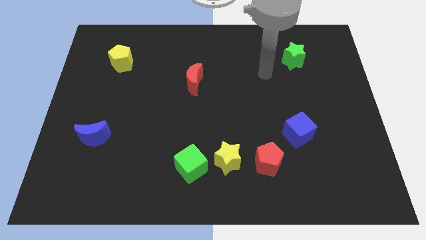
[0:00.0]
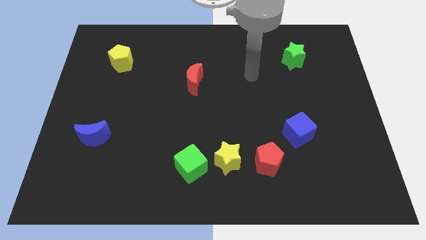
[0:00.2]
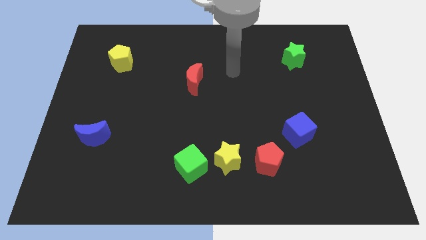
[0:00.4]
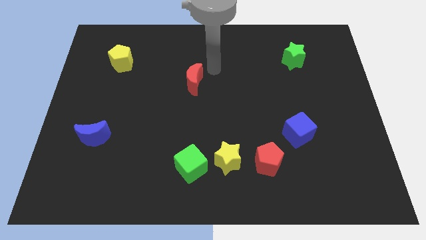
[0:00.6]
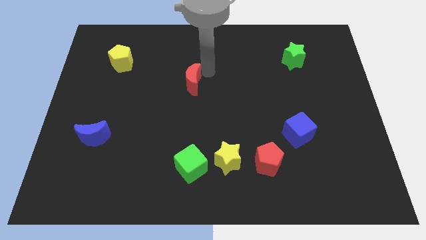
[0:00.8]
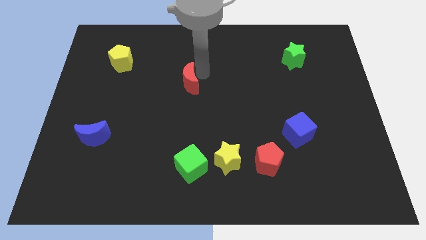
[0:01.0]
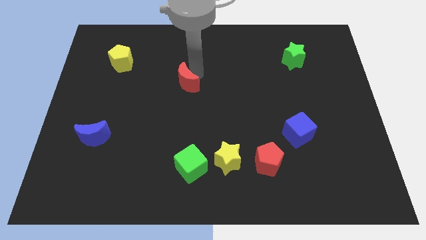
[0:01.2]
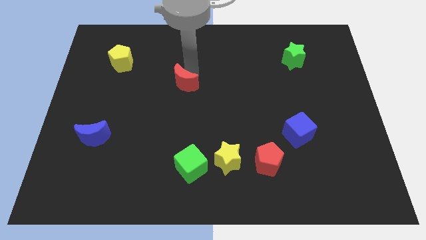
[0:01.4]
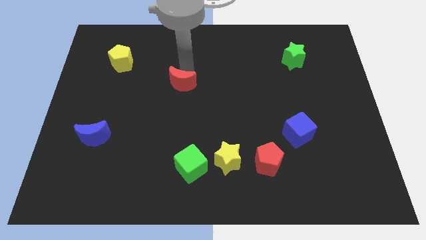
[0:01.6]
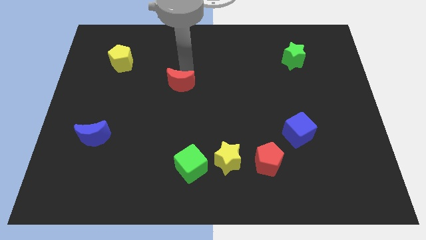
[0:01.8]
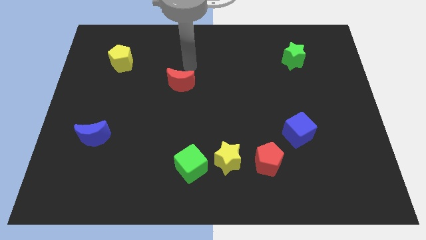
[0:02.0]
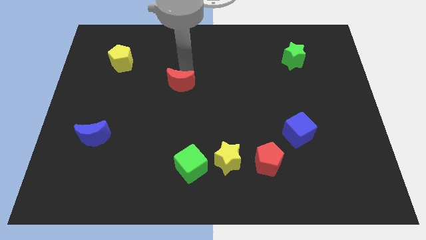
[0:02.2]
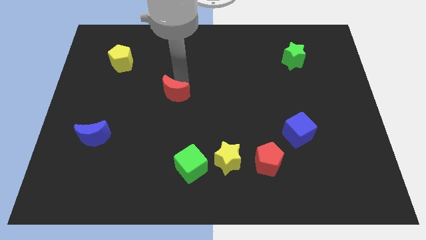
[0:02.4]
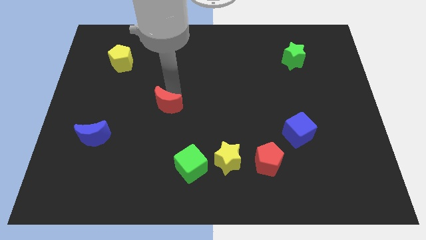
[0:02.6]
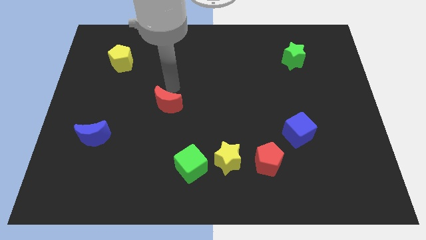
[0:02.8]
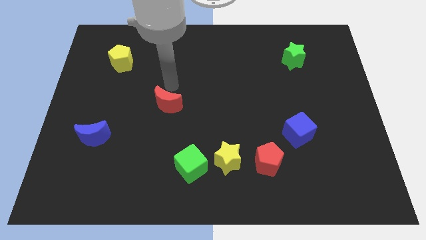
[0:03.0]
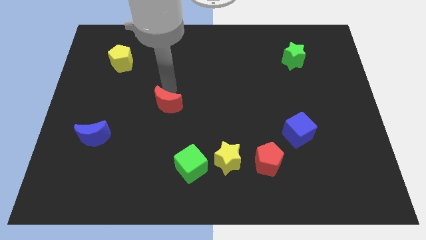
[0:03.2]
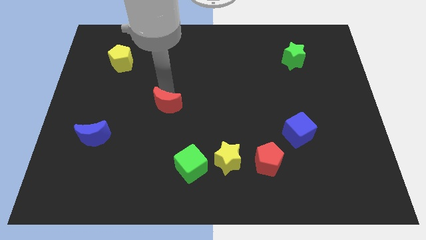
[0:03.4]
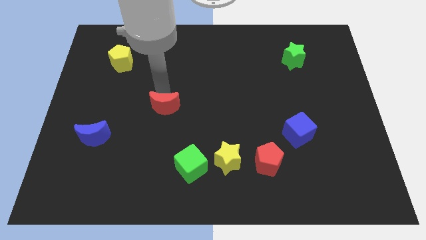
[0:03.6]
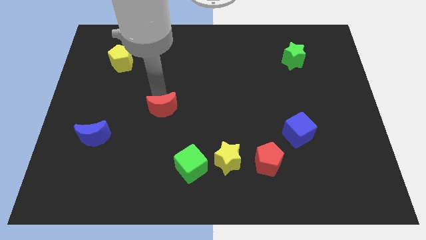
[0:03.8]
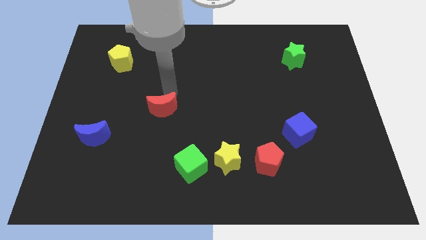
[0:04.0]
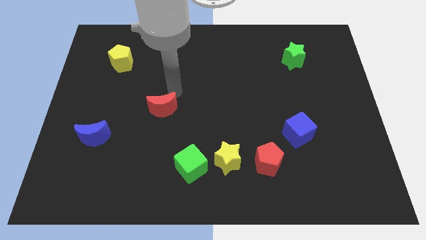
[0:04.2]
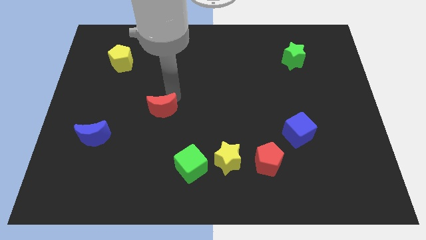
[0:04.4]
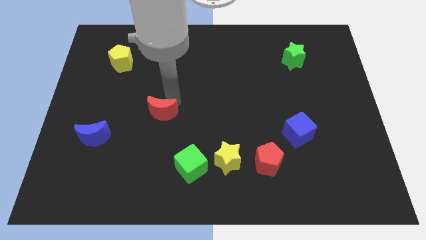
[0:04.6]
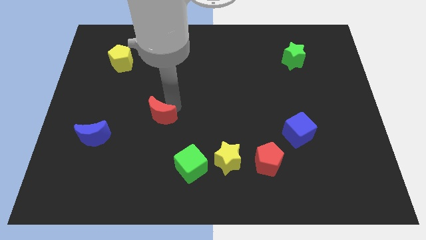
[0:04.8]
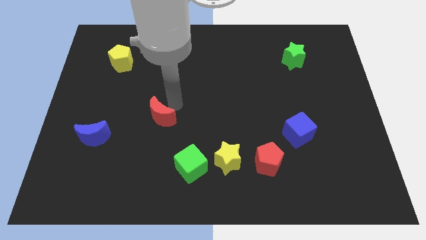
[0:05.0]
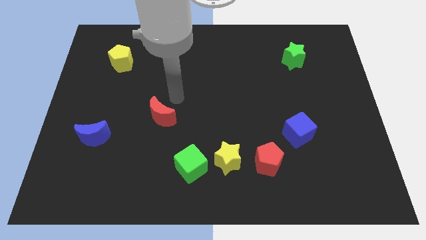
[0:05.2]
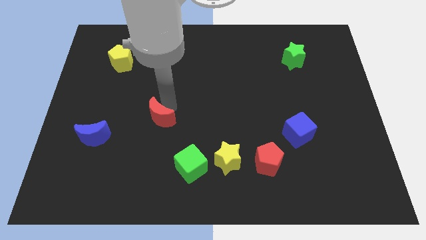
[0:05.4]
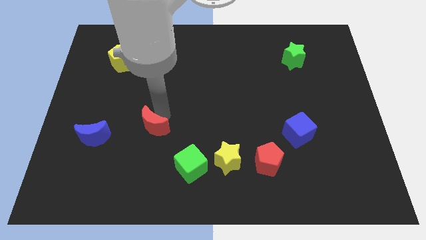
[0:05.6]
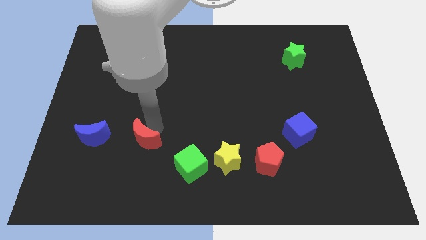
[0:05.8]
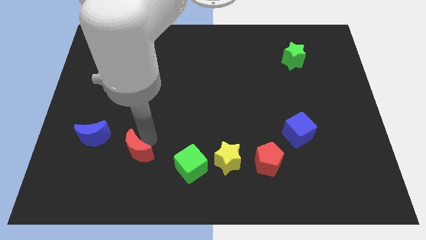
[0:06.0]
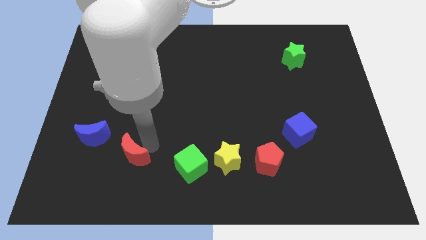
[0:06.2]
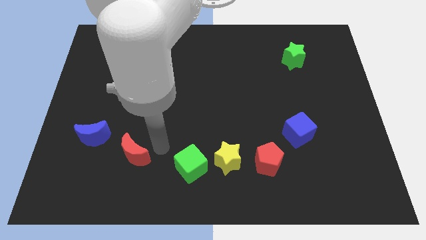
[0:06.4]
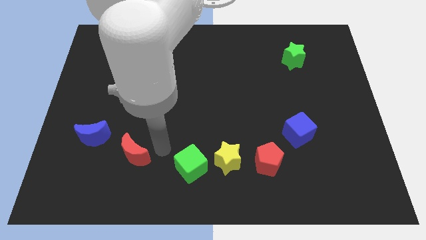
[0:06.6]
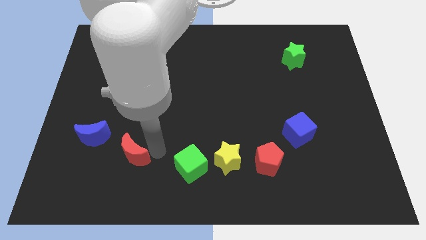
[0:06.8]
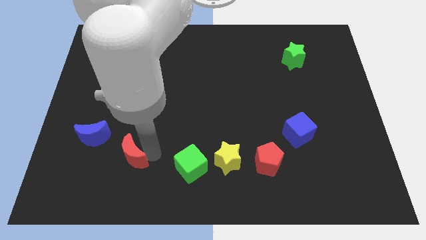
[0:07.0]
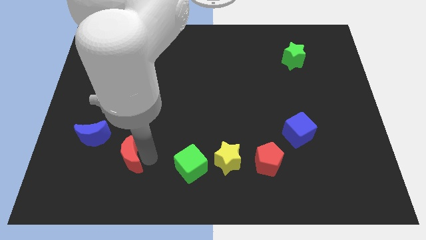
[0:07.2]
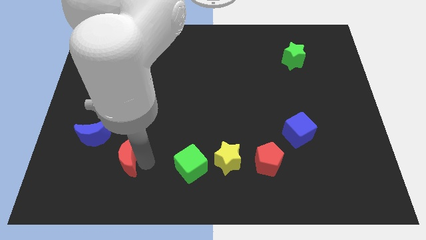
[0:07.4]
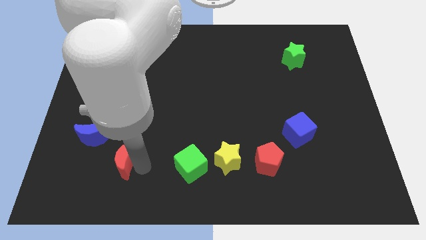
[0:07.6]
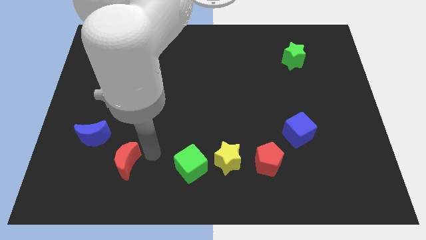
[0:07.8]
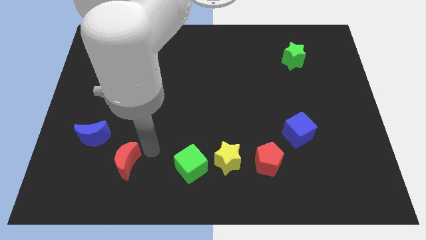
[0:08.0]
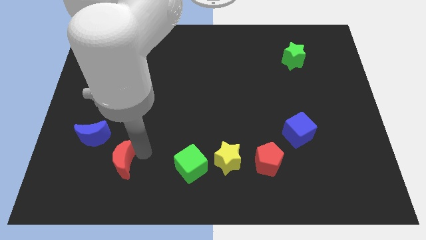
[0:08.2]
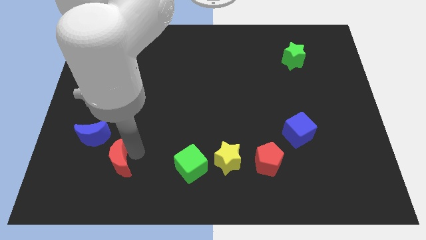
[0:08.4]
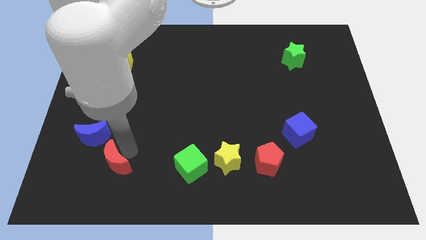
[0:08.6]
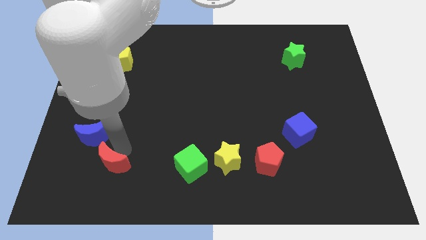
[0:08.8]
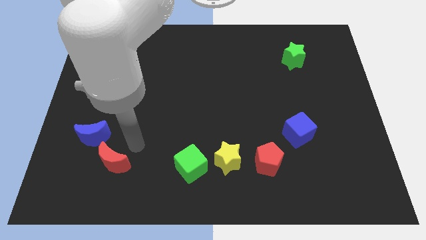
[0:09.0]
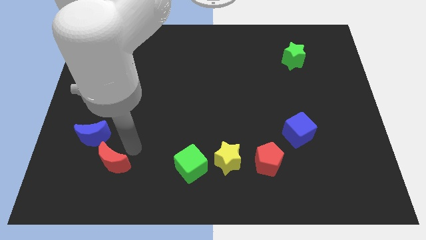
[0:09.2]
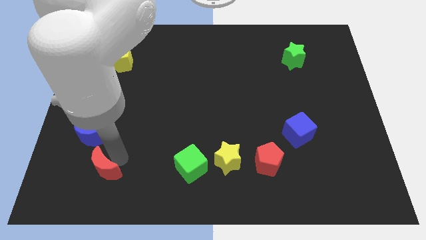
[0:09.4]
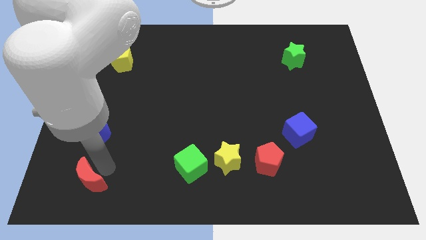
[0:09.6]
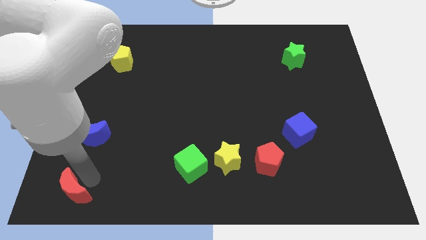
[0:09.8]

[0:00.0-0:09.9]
push the red moon to the lower left corner

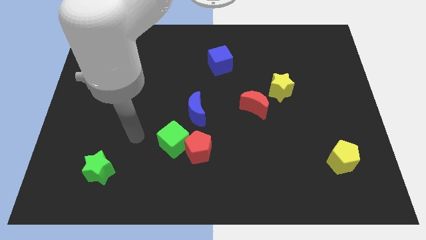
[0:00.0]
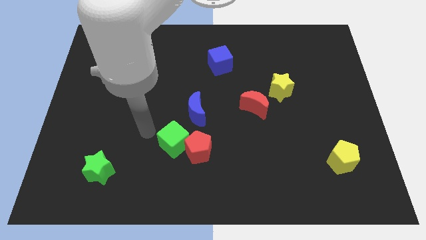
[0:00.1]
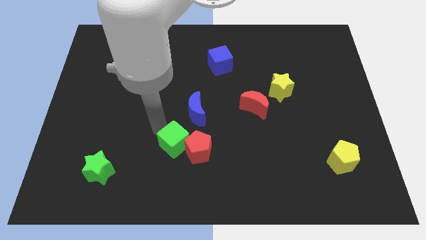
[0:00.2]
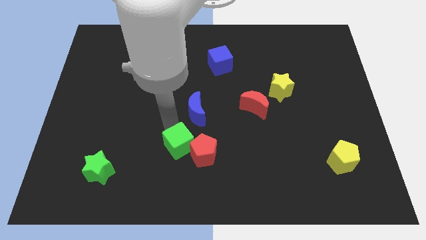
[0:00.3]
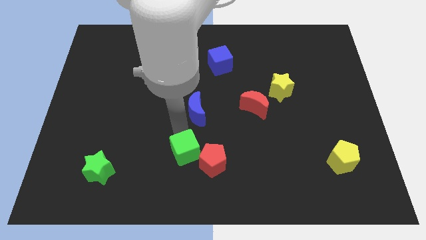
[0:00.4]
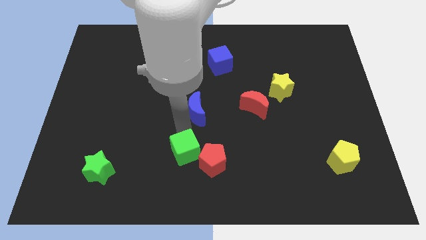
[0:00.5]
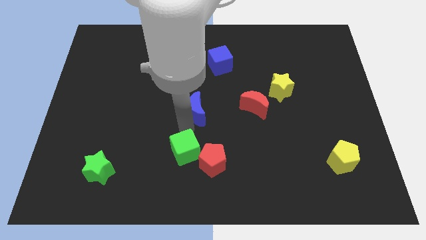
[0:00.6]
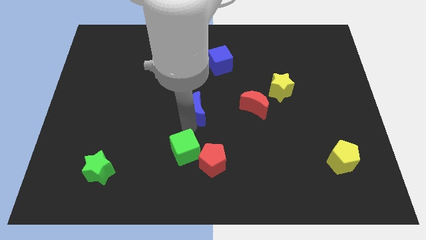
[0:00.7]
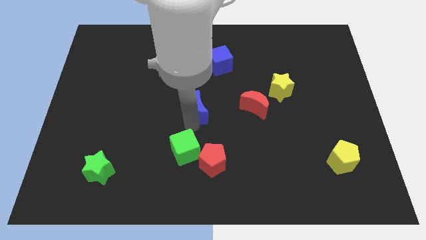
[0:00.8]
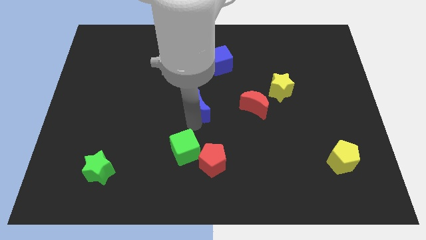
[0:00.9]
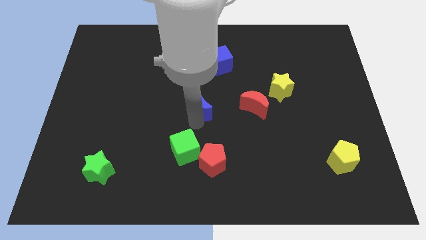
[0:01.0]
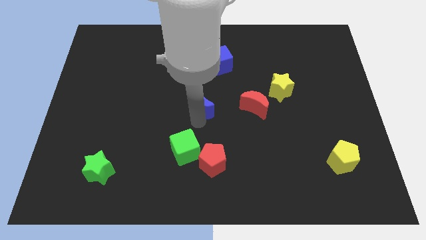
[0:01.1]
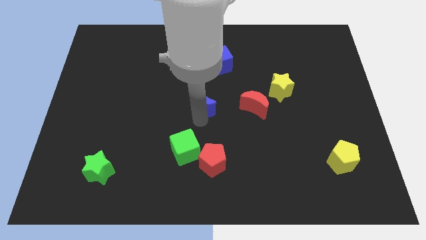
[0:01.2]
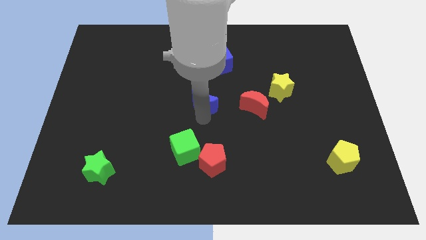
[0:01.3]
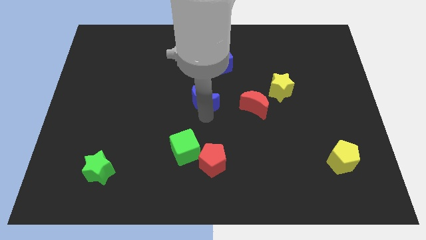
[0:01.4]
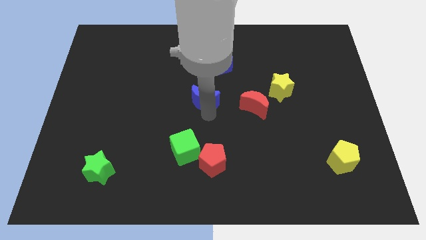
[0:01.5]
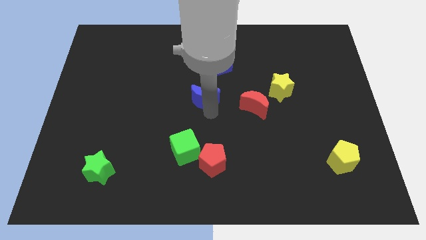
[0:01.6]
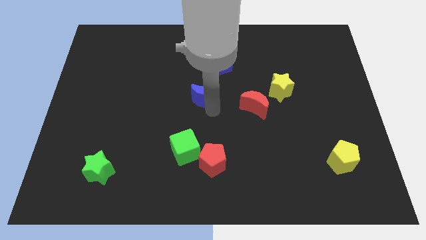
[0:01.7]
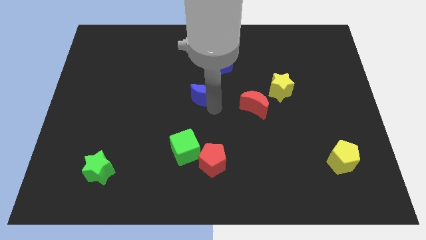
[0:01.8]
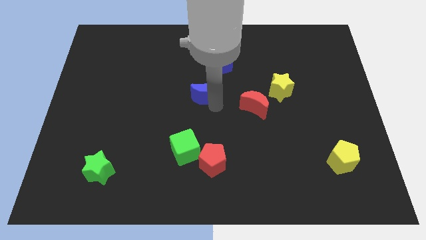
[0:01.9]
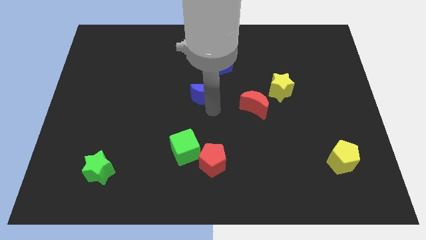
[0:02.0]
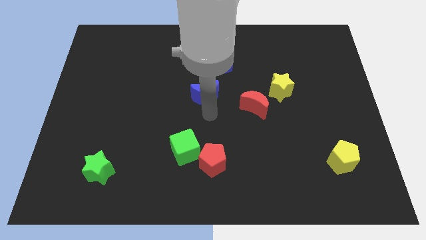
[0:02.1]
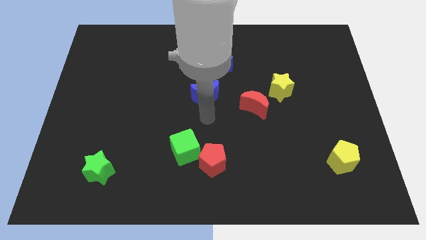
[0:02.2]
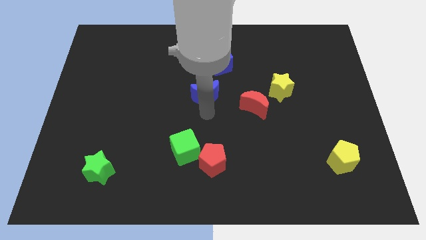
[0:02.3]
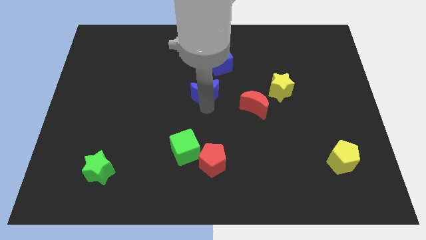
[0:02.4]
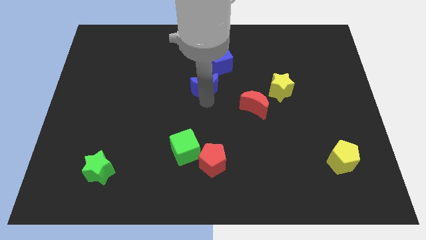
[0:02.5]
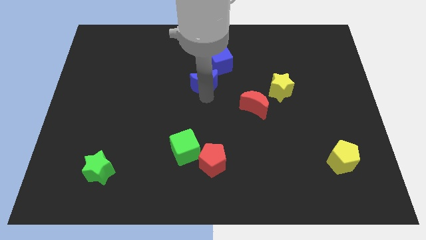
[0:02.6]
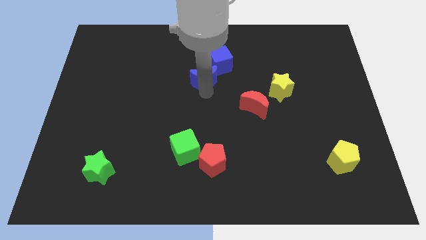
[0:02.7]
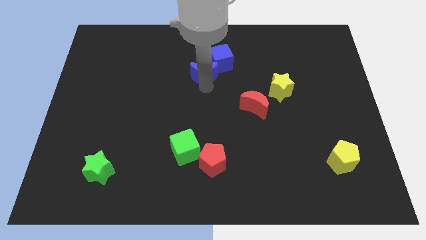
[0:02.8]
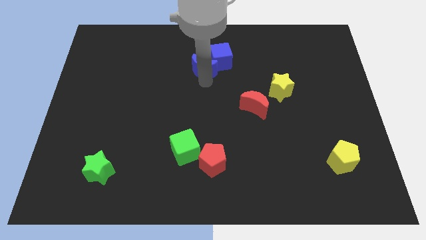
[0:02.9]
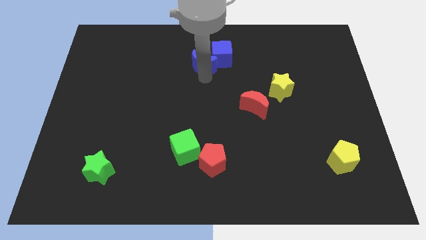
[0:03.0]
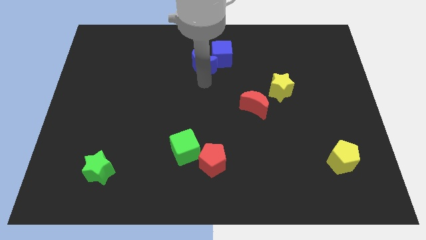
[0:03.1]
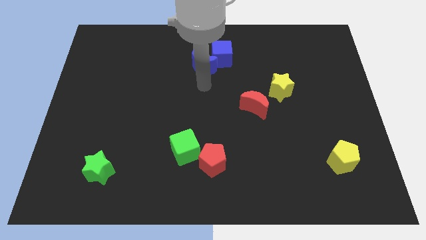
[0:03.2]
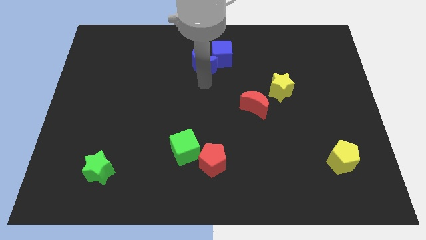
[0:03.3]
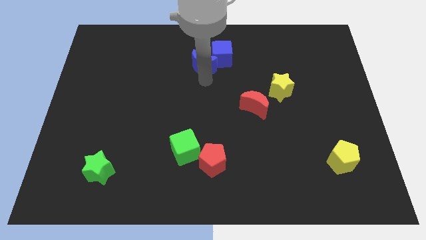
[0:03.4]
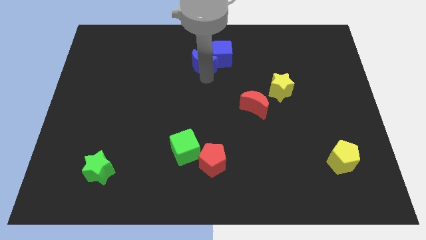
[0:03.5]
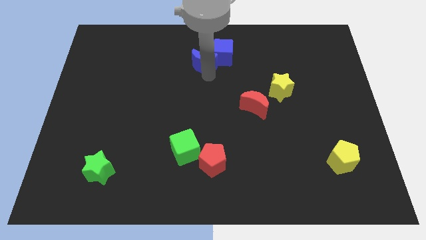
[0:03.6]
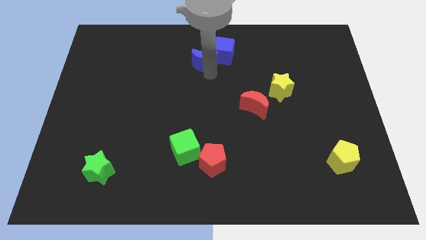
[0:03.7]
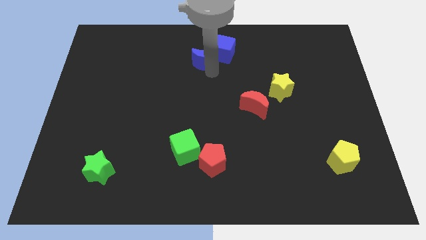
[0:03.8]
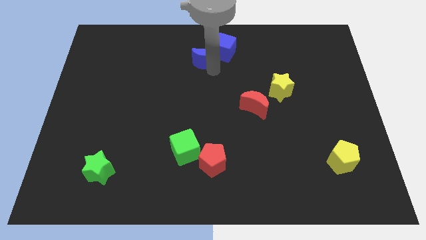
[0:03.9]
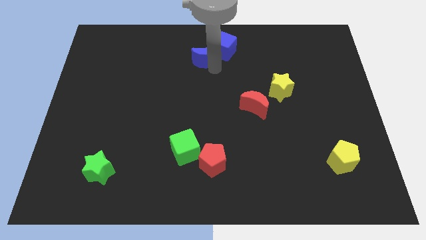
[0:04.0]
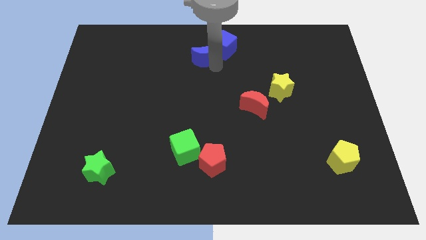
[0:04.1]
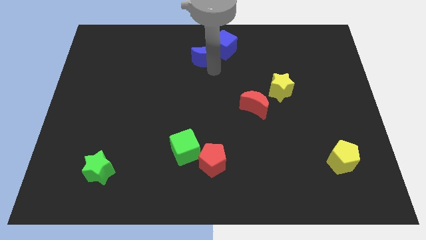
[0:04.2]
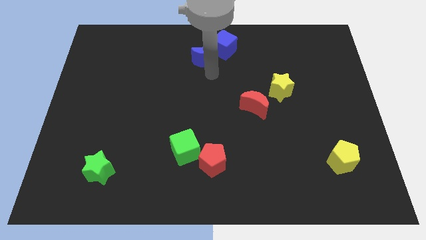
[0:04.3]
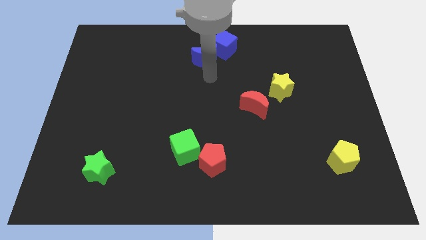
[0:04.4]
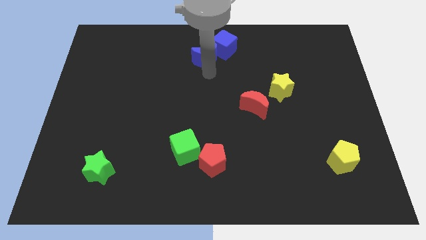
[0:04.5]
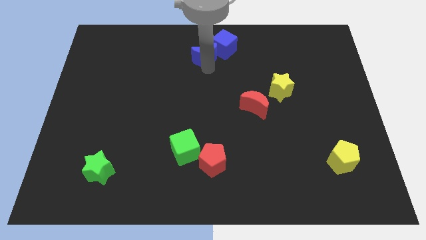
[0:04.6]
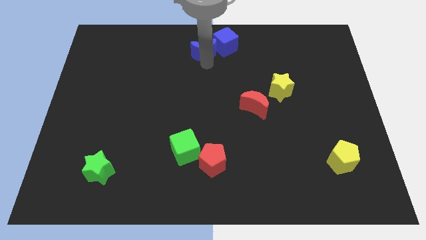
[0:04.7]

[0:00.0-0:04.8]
slide the blue moon to the top side
